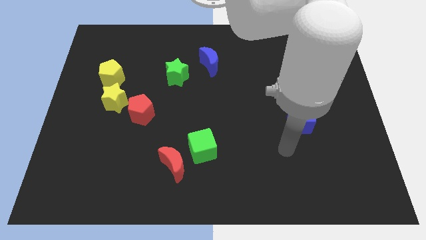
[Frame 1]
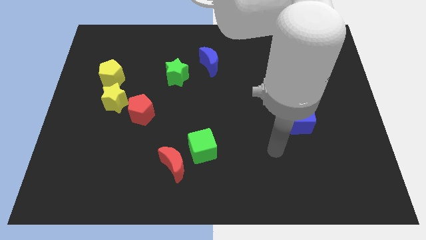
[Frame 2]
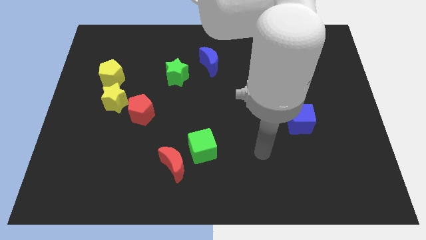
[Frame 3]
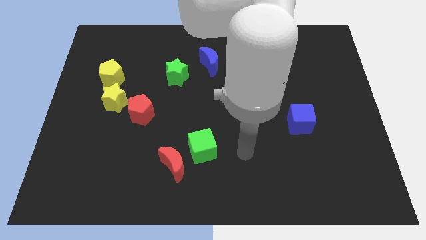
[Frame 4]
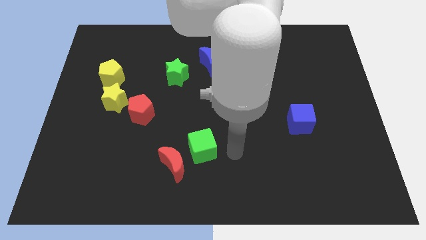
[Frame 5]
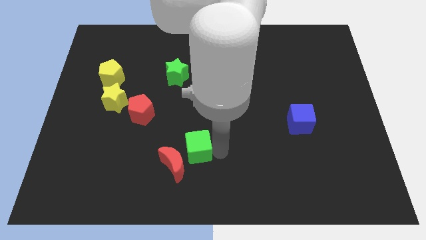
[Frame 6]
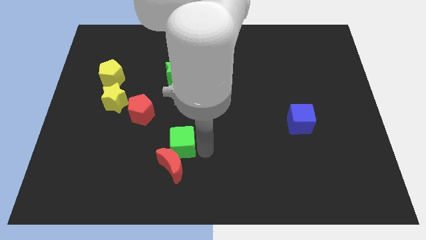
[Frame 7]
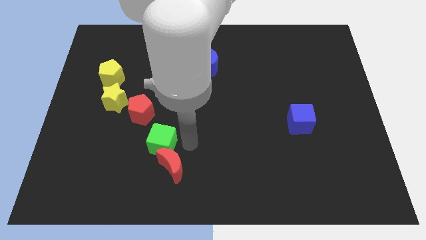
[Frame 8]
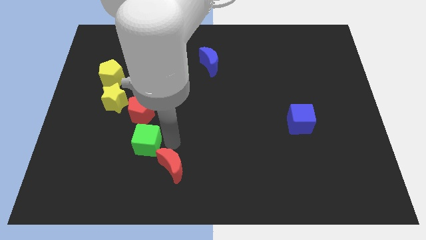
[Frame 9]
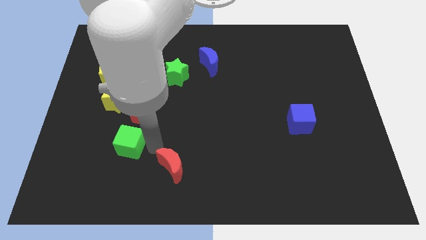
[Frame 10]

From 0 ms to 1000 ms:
move the red moon away from the green cube

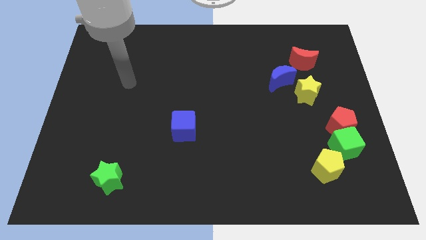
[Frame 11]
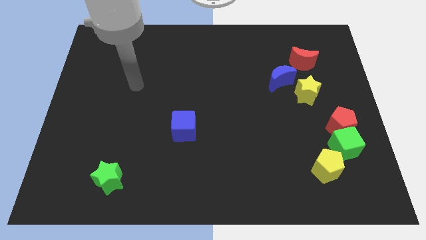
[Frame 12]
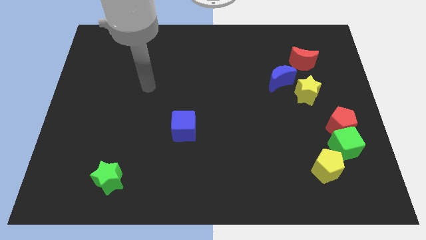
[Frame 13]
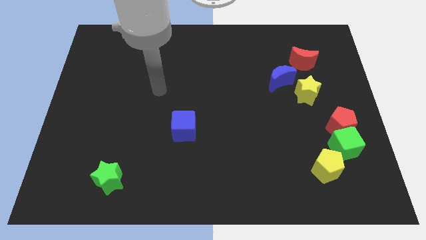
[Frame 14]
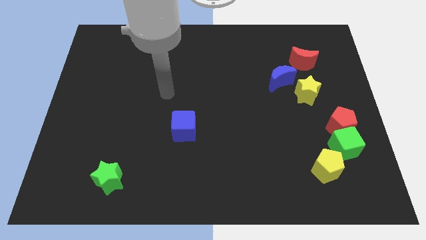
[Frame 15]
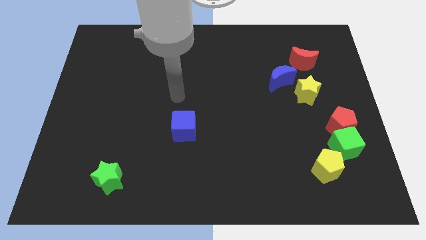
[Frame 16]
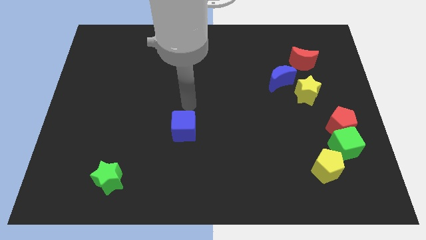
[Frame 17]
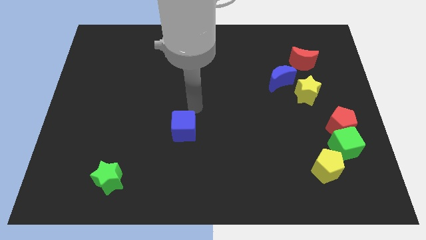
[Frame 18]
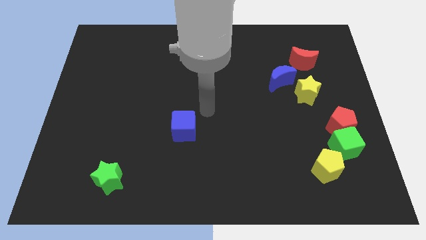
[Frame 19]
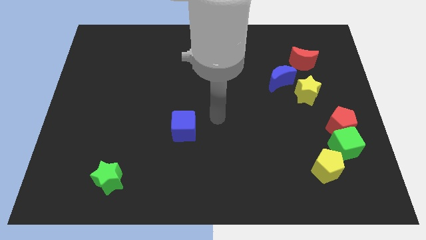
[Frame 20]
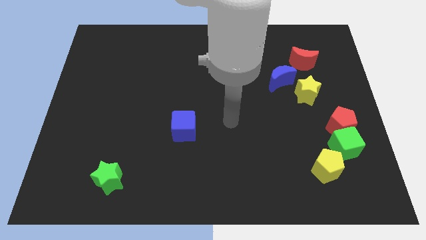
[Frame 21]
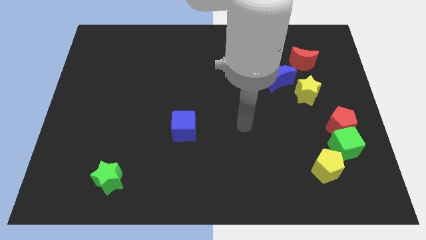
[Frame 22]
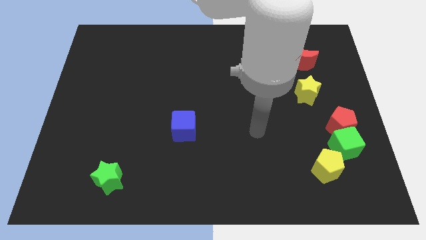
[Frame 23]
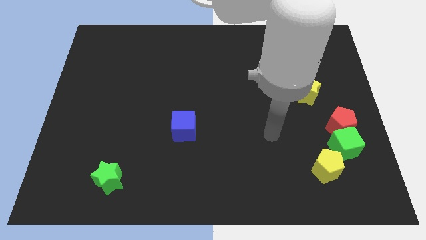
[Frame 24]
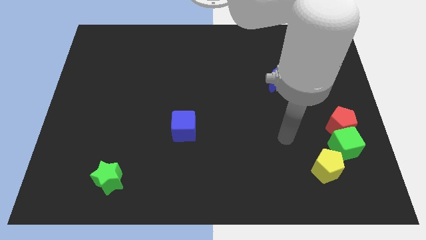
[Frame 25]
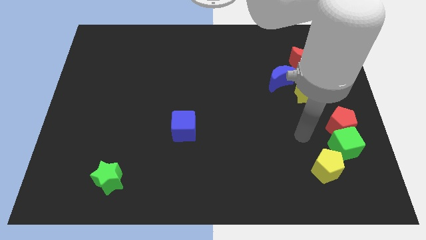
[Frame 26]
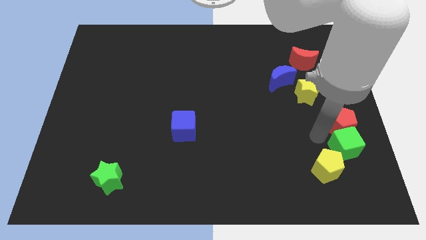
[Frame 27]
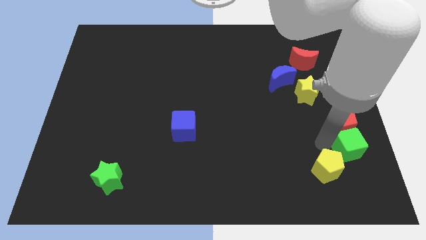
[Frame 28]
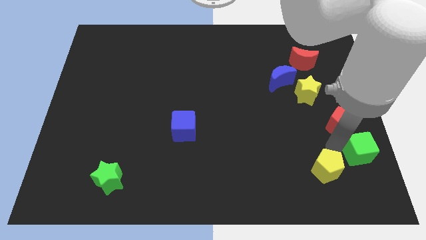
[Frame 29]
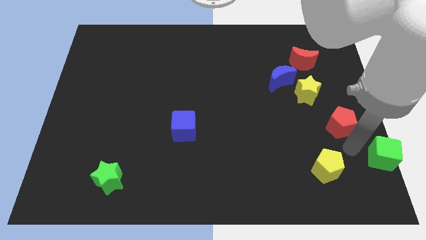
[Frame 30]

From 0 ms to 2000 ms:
separate the red pentagon from the green cube

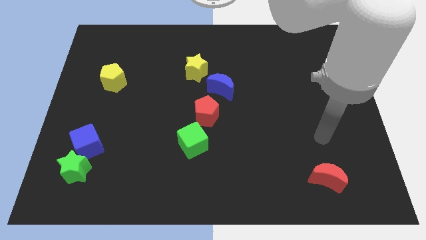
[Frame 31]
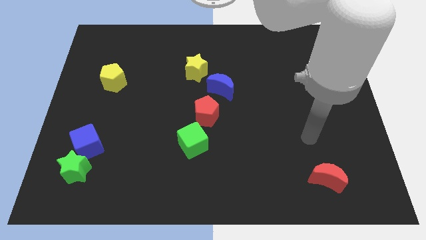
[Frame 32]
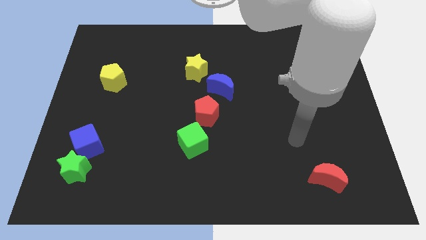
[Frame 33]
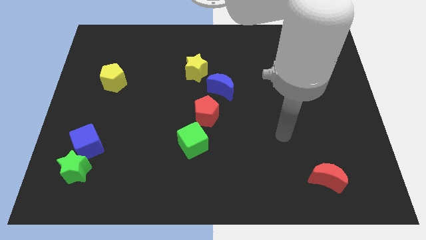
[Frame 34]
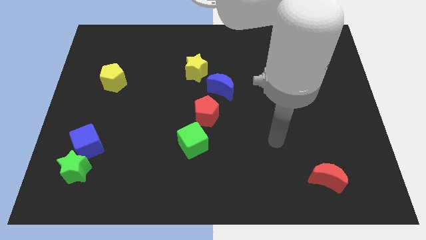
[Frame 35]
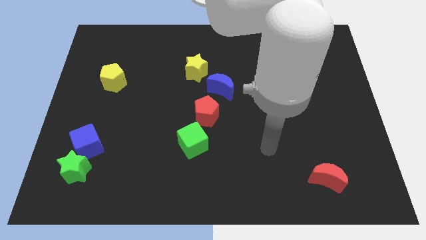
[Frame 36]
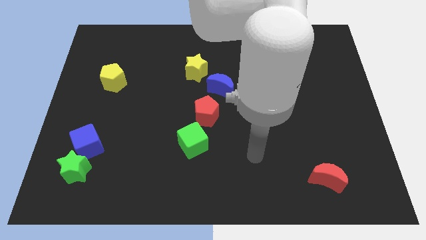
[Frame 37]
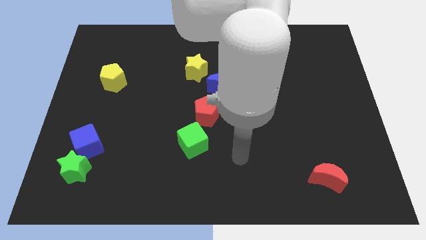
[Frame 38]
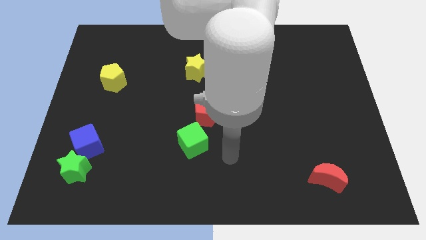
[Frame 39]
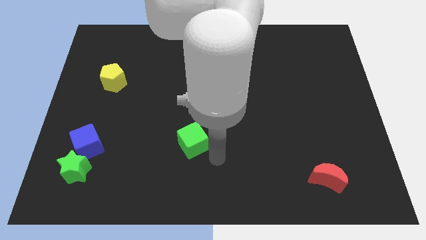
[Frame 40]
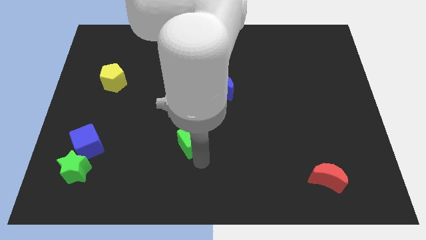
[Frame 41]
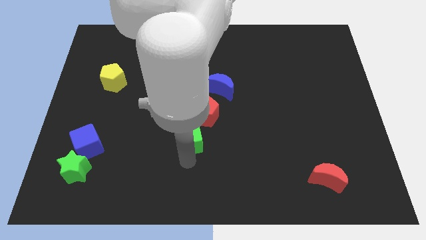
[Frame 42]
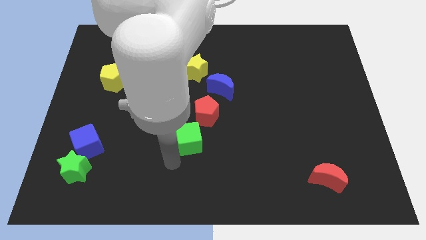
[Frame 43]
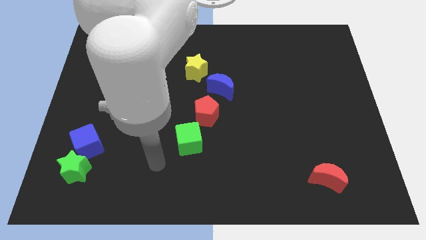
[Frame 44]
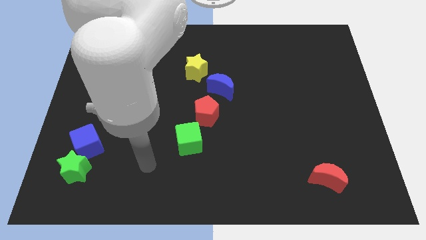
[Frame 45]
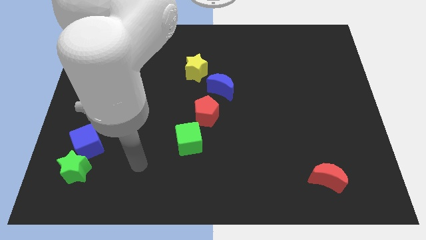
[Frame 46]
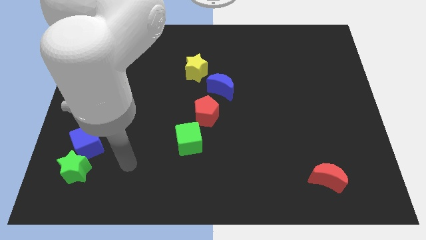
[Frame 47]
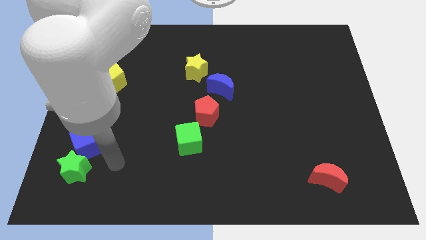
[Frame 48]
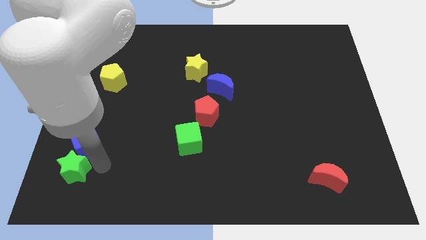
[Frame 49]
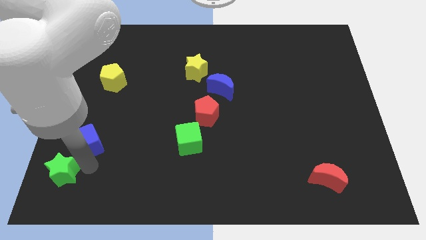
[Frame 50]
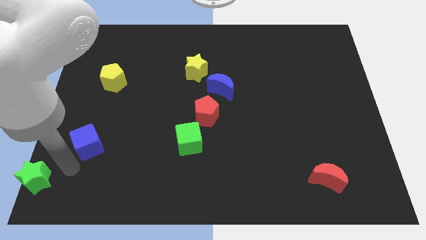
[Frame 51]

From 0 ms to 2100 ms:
separate the blue cube from the green star

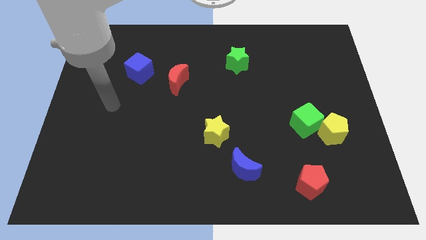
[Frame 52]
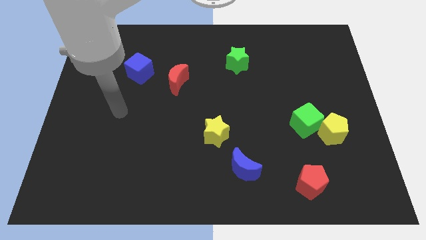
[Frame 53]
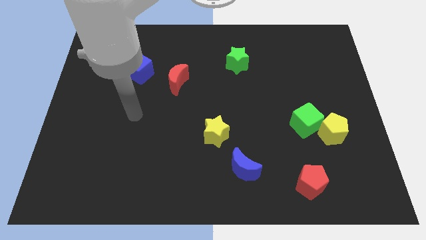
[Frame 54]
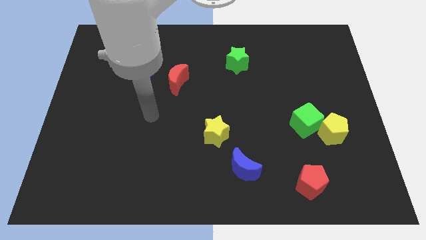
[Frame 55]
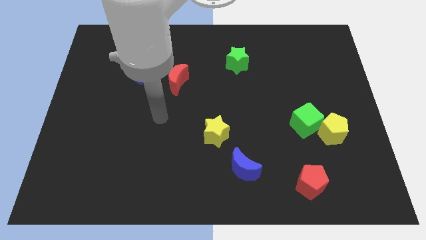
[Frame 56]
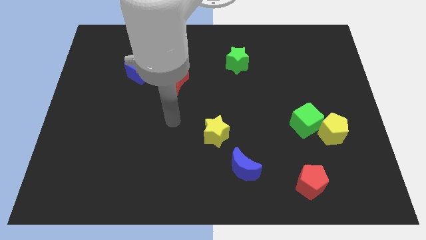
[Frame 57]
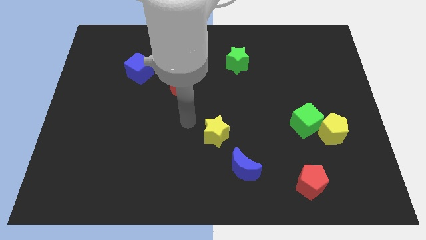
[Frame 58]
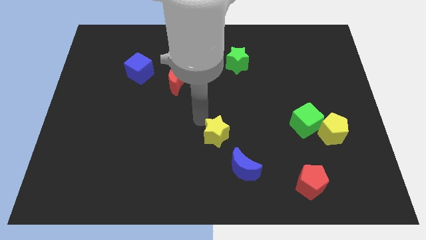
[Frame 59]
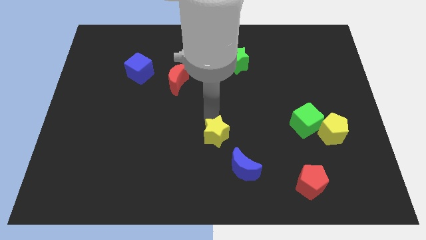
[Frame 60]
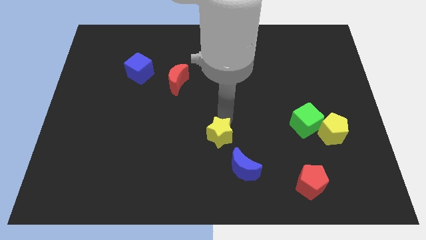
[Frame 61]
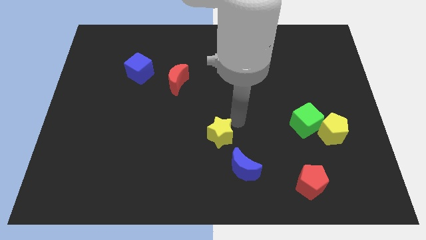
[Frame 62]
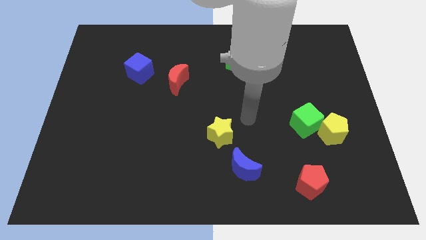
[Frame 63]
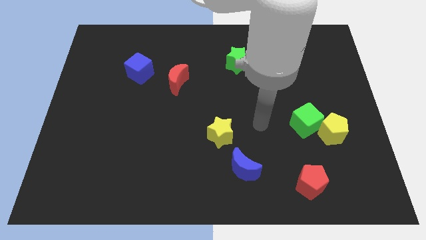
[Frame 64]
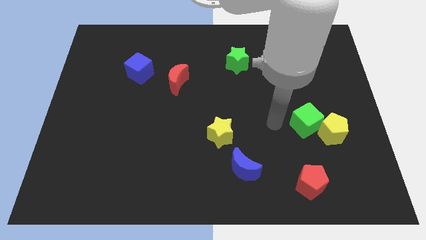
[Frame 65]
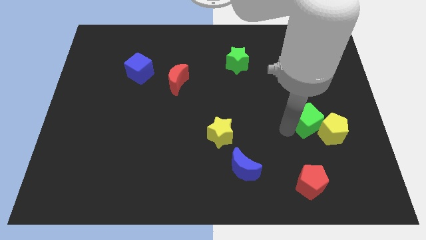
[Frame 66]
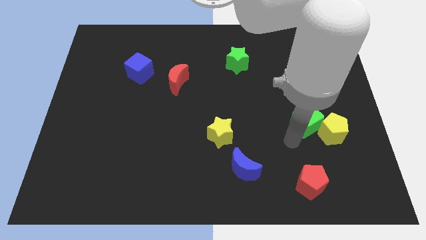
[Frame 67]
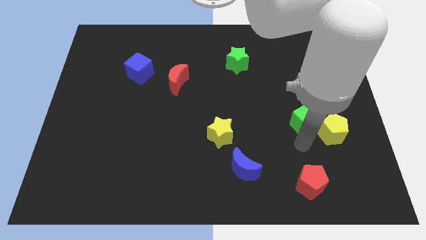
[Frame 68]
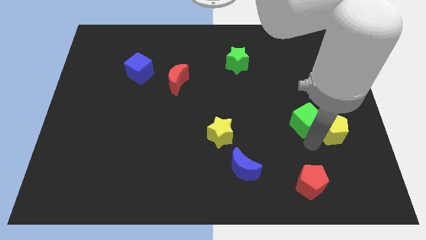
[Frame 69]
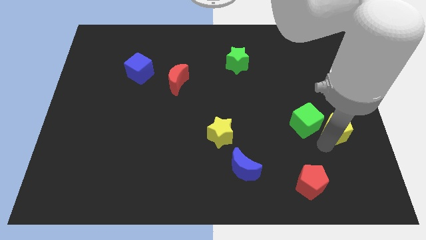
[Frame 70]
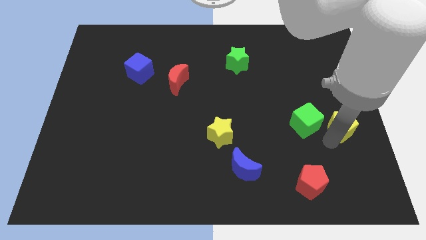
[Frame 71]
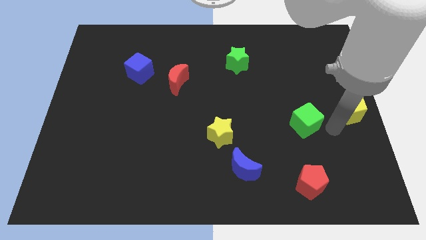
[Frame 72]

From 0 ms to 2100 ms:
move the green cube away from the yellow pentagon

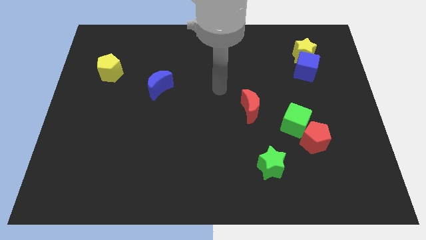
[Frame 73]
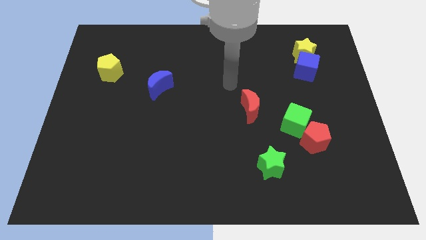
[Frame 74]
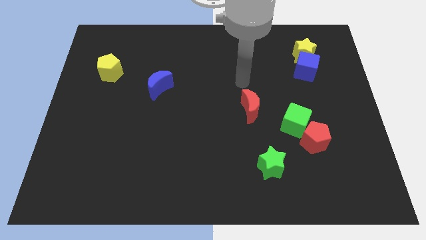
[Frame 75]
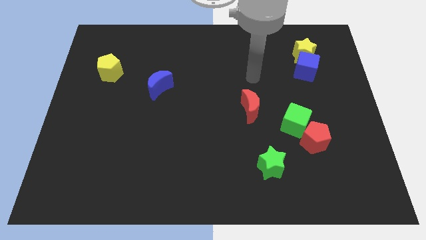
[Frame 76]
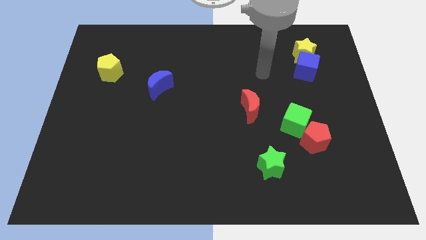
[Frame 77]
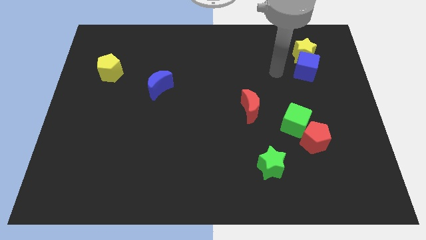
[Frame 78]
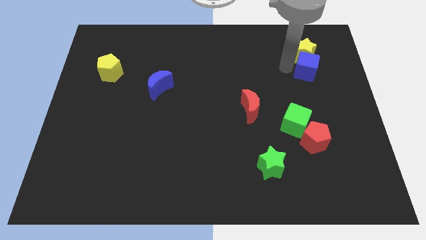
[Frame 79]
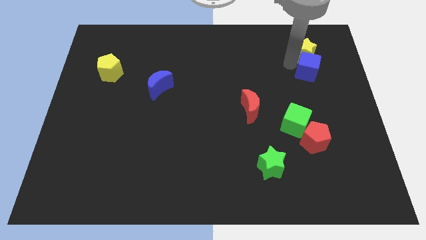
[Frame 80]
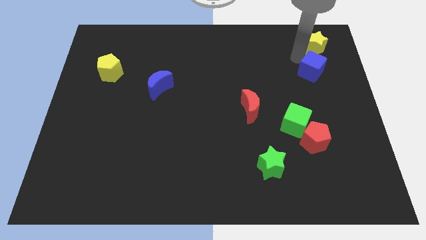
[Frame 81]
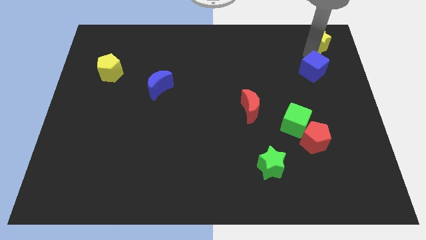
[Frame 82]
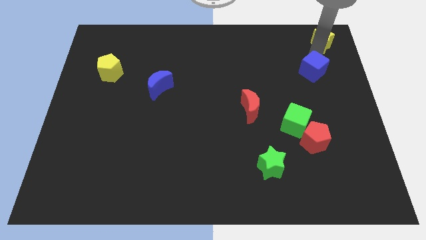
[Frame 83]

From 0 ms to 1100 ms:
separate the blue cube from the yellow star

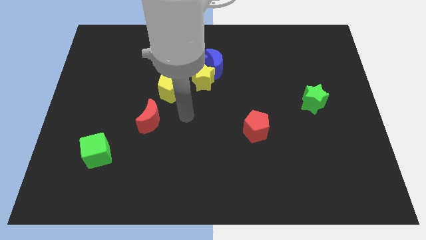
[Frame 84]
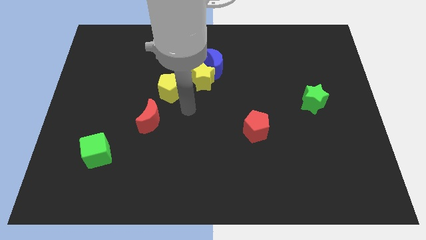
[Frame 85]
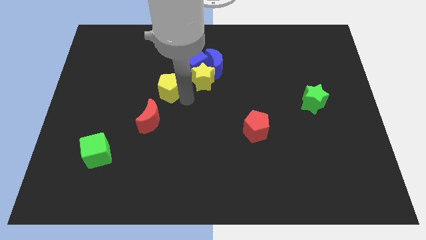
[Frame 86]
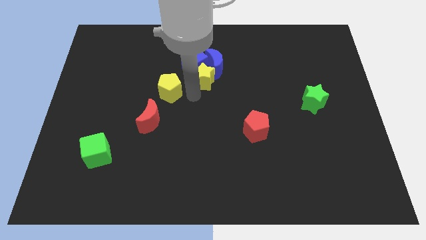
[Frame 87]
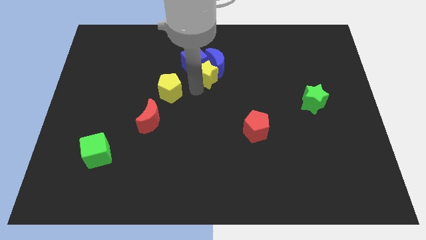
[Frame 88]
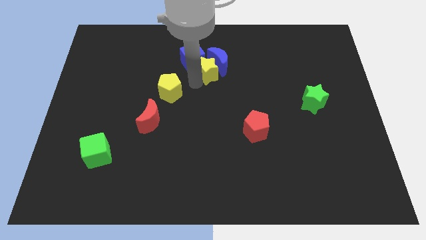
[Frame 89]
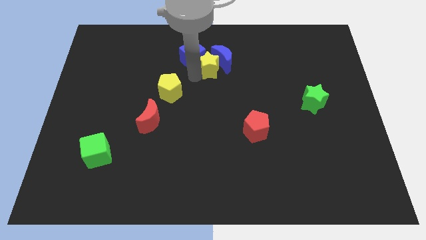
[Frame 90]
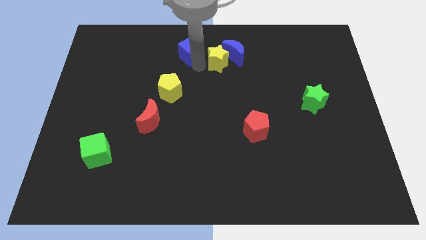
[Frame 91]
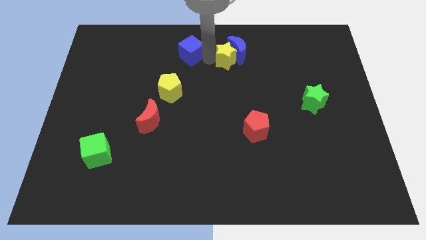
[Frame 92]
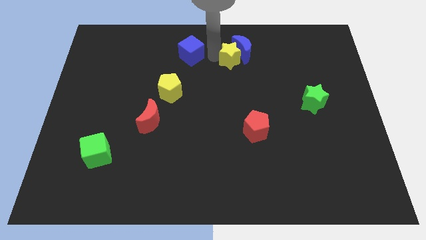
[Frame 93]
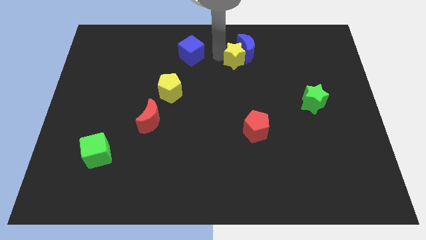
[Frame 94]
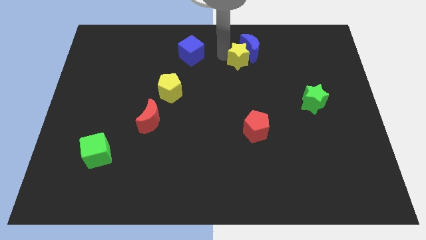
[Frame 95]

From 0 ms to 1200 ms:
pull the blue moon apart from the blue cube and yellow star
